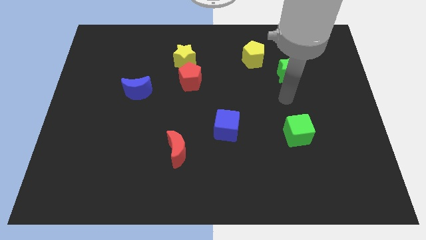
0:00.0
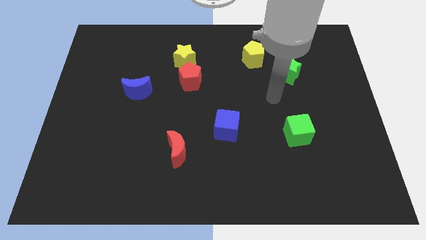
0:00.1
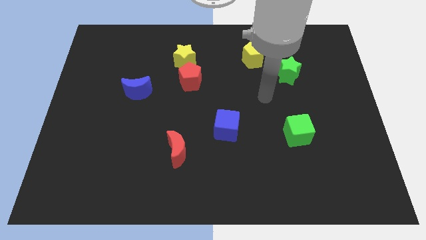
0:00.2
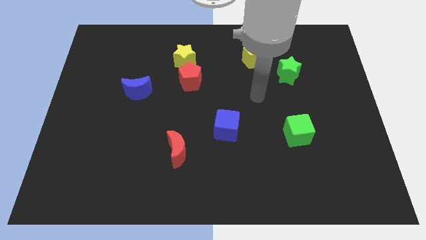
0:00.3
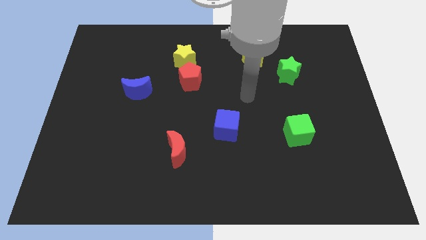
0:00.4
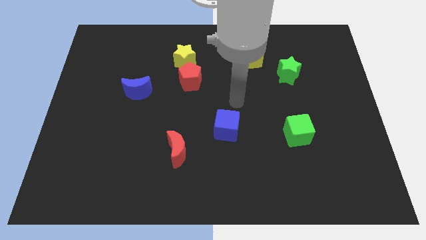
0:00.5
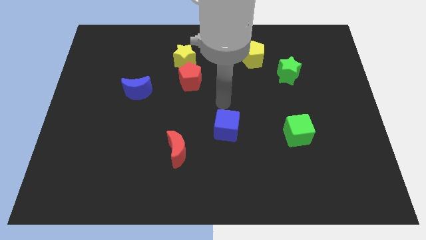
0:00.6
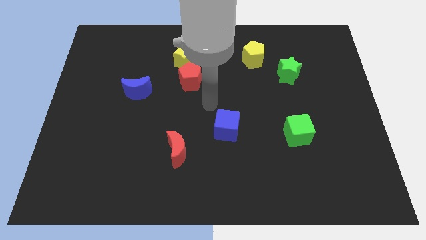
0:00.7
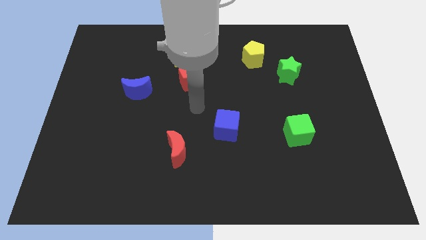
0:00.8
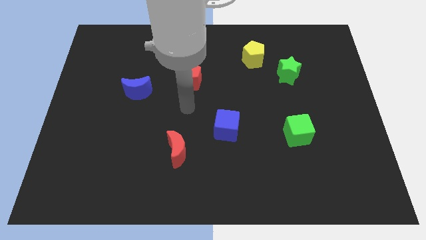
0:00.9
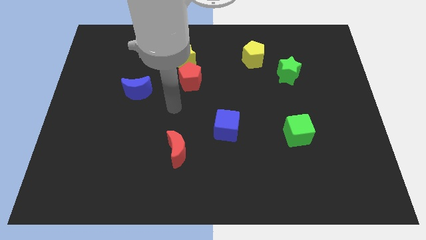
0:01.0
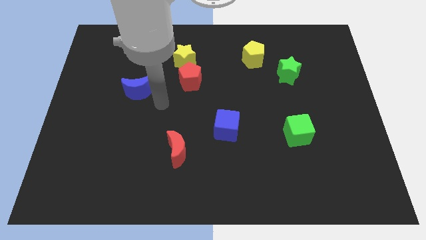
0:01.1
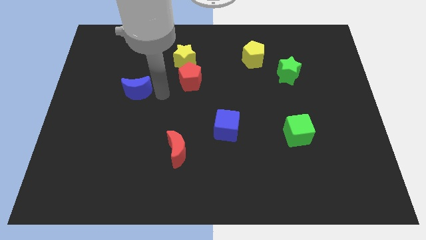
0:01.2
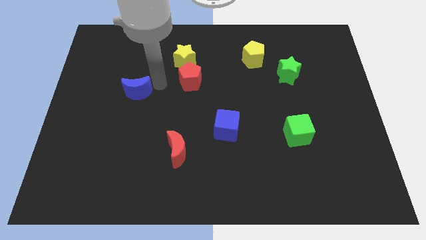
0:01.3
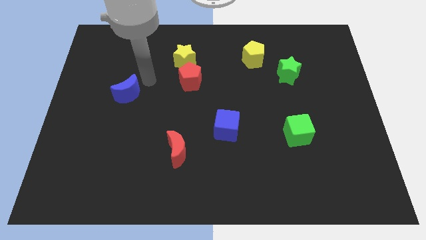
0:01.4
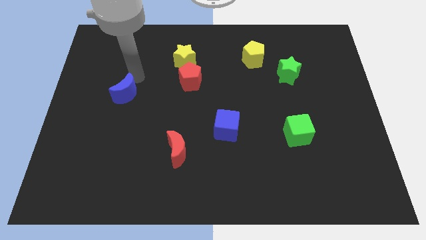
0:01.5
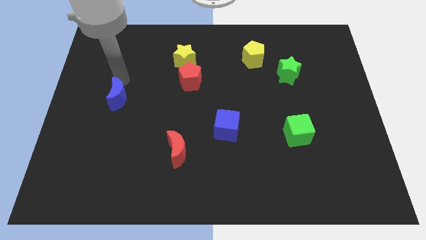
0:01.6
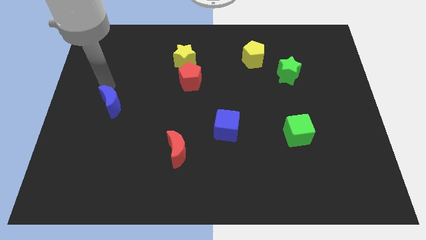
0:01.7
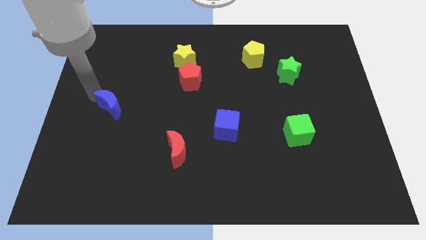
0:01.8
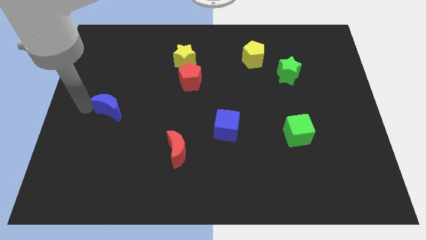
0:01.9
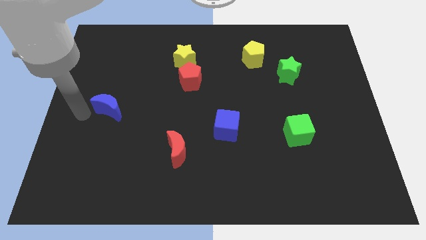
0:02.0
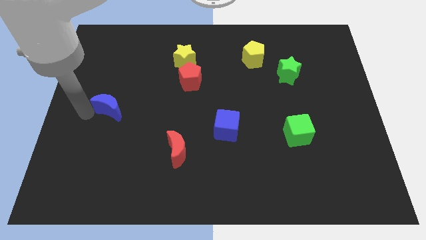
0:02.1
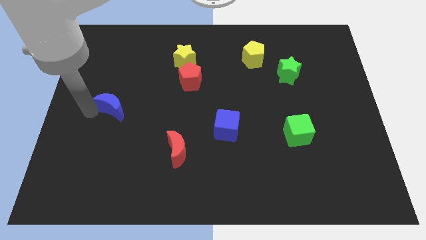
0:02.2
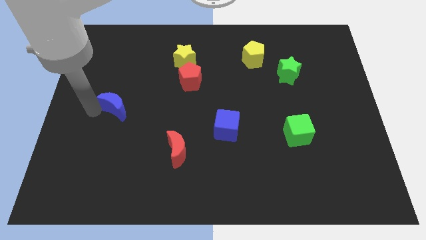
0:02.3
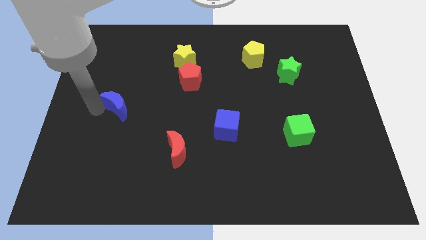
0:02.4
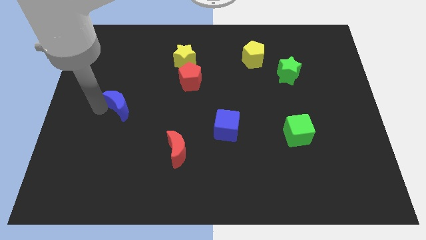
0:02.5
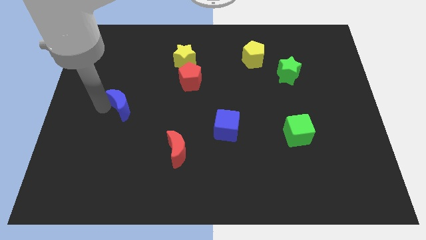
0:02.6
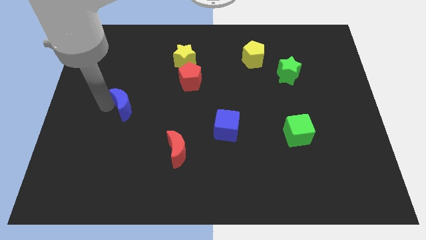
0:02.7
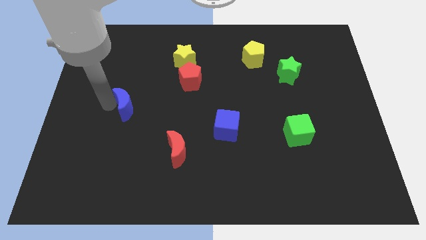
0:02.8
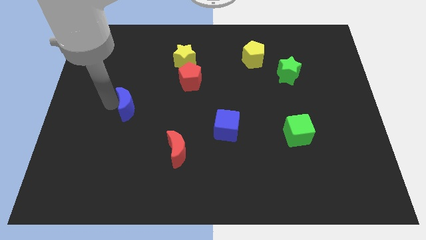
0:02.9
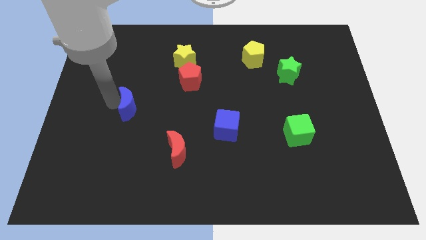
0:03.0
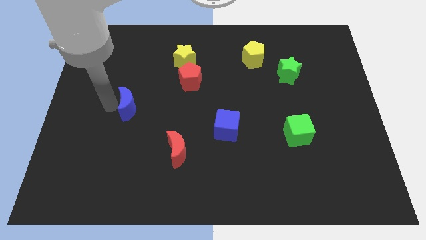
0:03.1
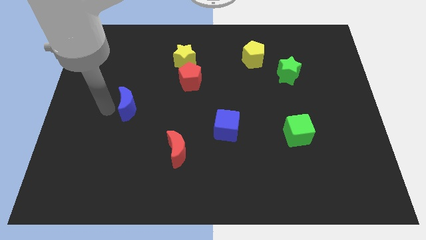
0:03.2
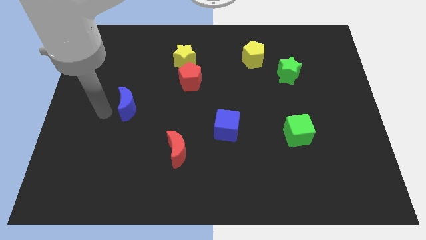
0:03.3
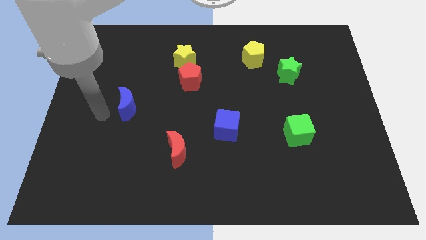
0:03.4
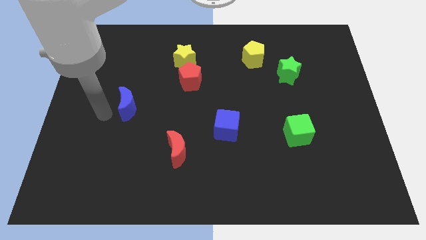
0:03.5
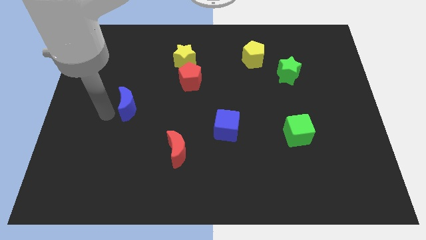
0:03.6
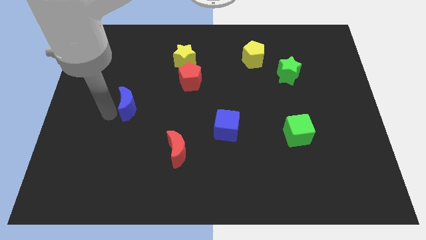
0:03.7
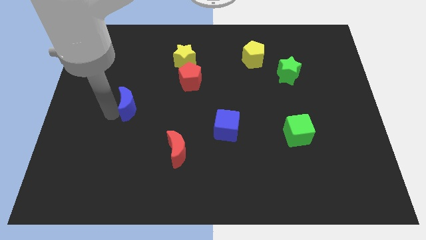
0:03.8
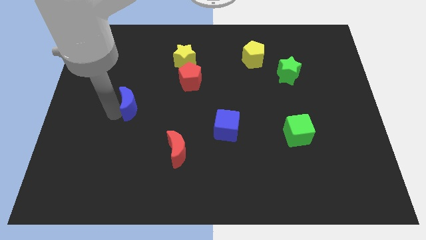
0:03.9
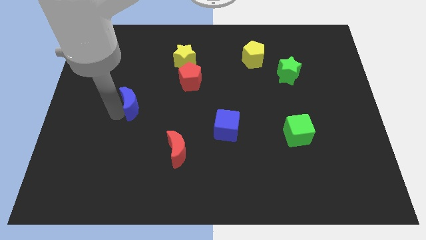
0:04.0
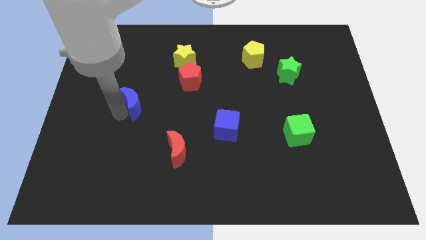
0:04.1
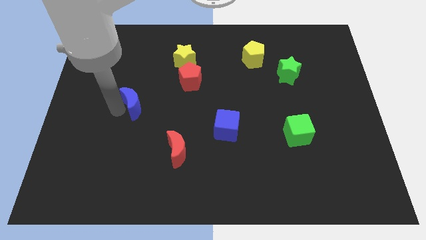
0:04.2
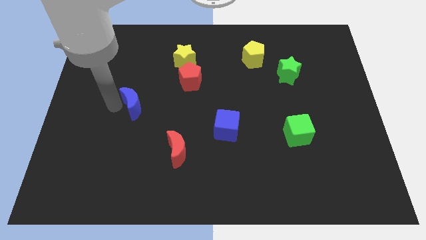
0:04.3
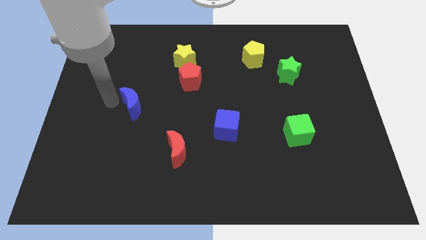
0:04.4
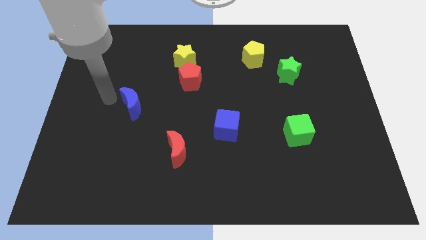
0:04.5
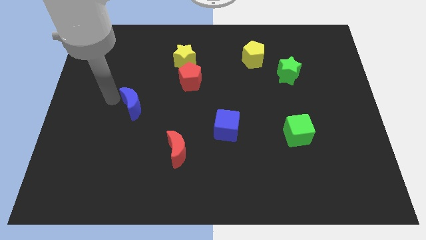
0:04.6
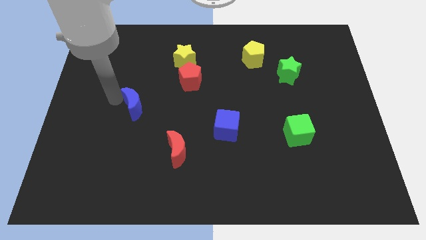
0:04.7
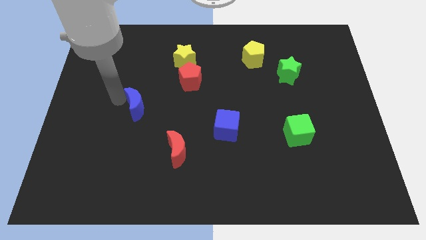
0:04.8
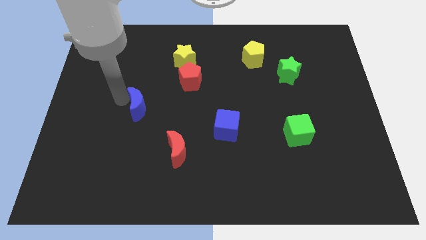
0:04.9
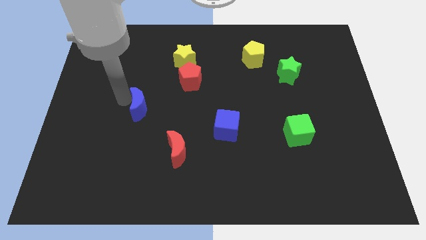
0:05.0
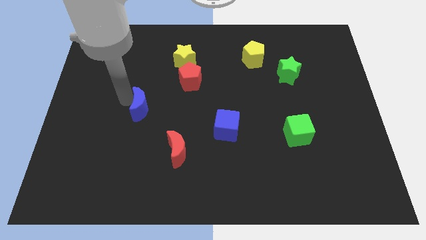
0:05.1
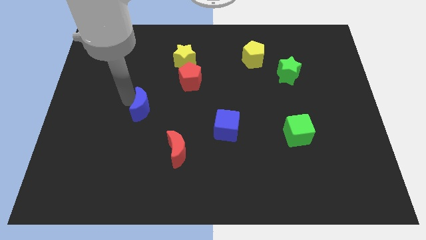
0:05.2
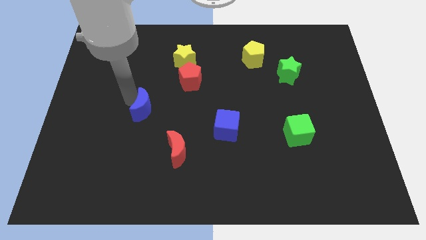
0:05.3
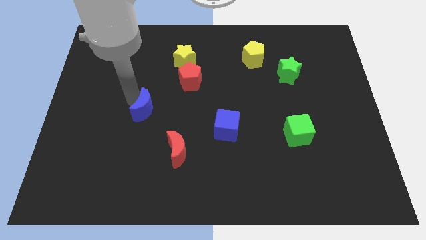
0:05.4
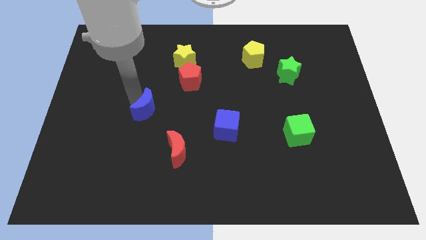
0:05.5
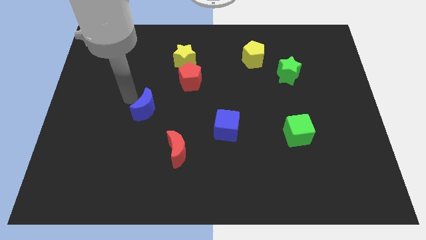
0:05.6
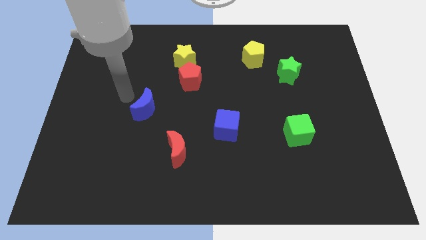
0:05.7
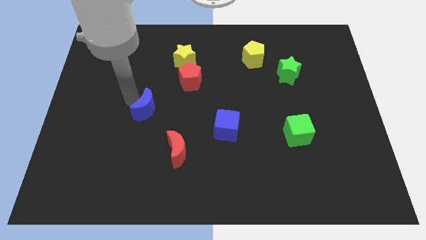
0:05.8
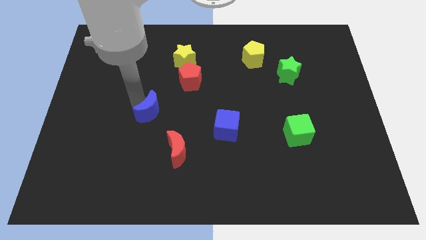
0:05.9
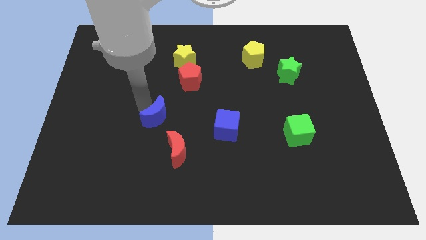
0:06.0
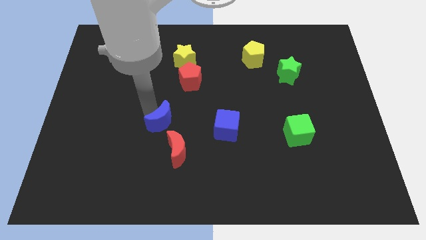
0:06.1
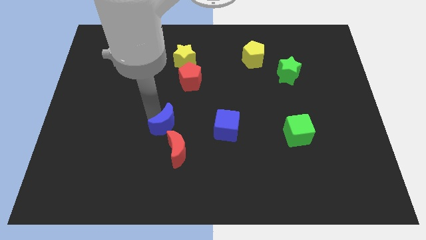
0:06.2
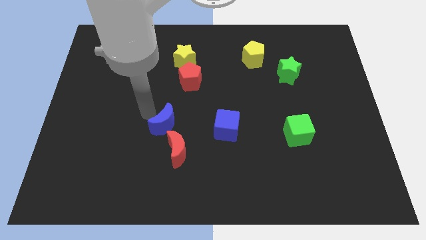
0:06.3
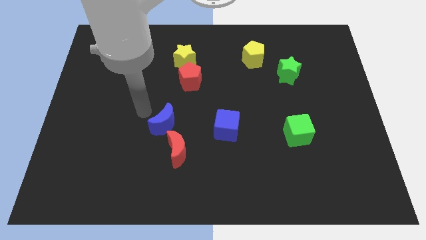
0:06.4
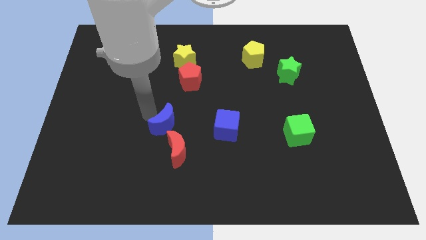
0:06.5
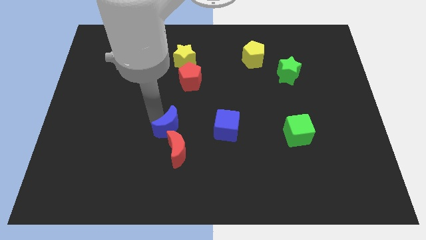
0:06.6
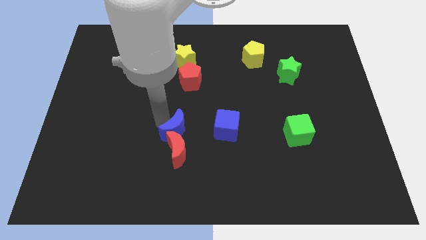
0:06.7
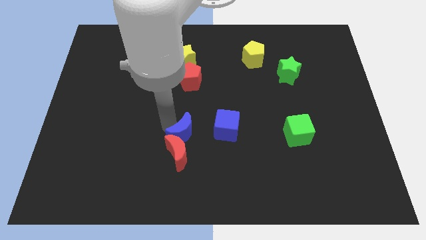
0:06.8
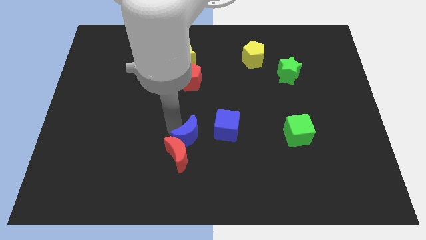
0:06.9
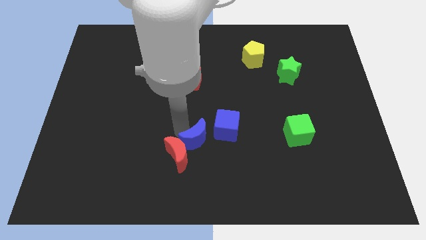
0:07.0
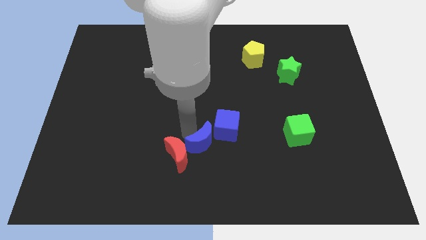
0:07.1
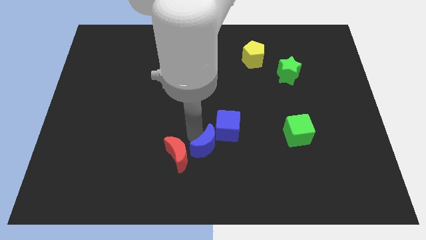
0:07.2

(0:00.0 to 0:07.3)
put the blue moon below the blue cube
